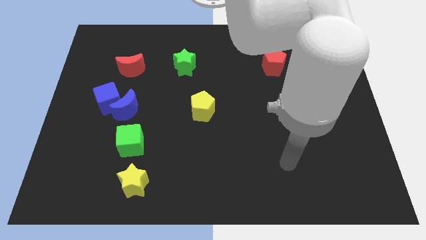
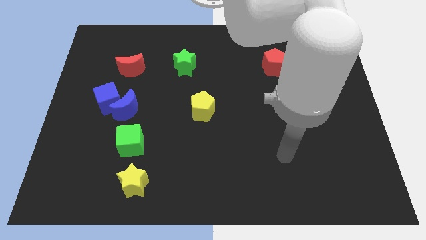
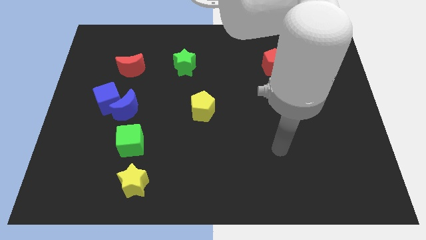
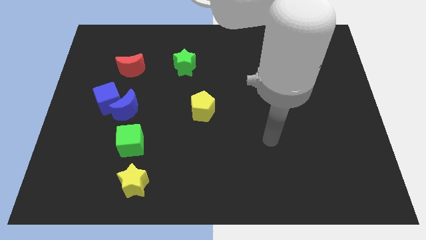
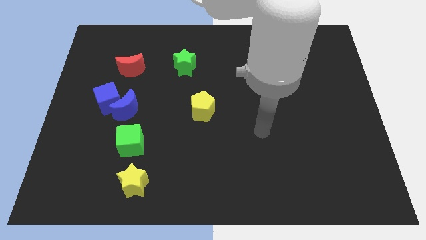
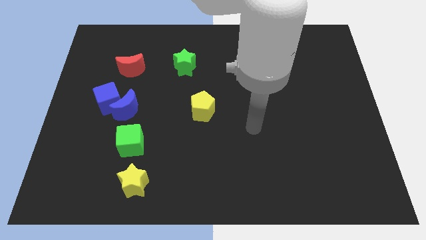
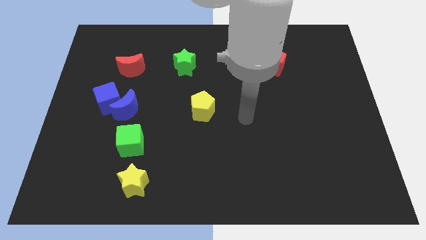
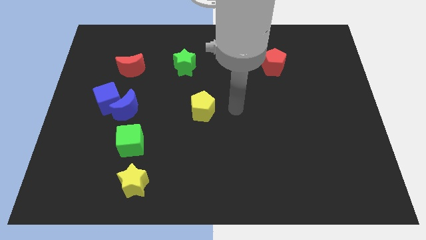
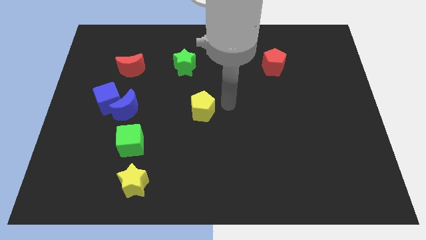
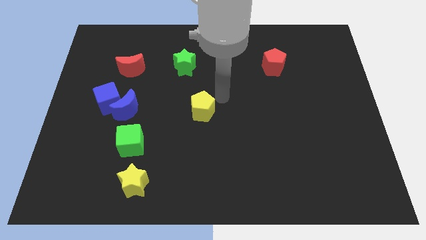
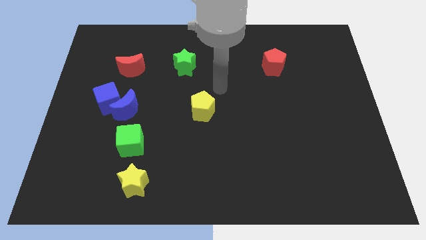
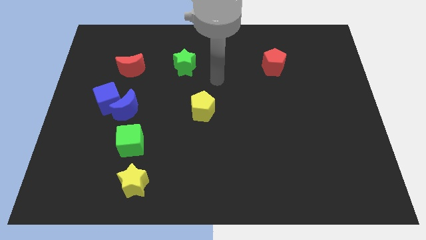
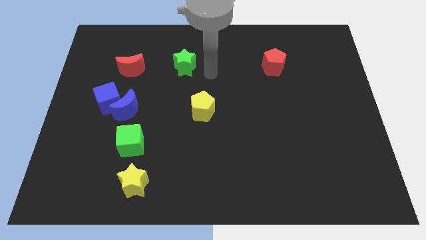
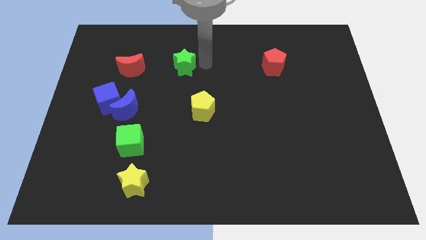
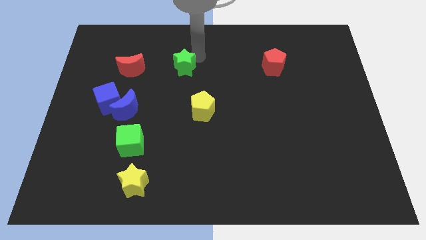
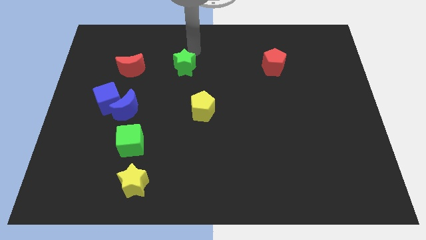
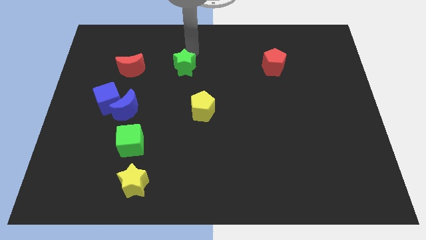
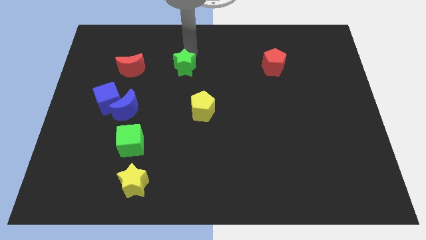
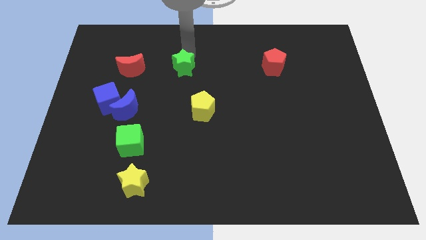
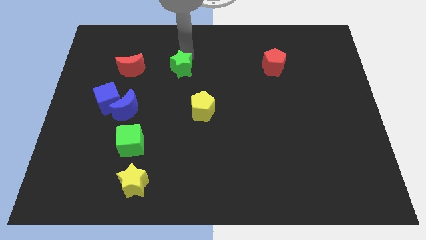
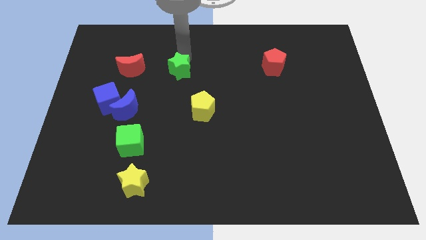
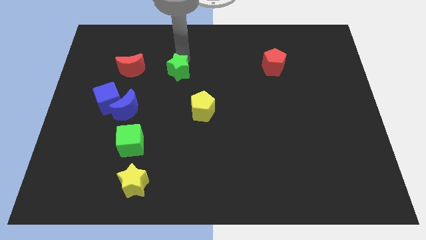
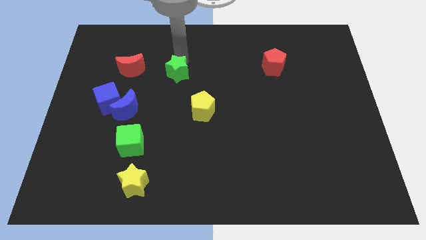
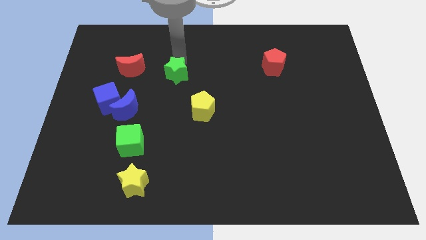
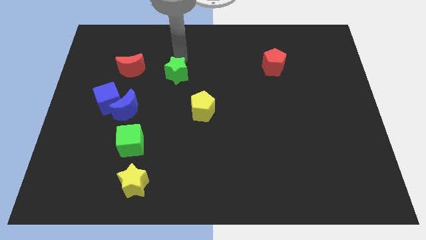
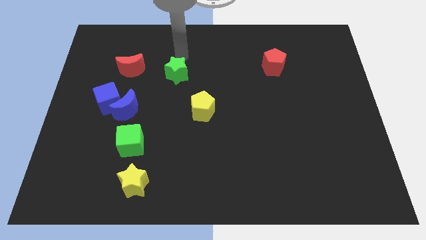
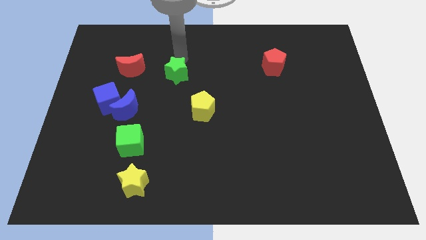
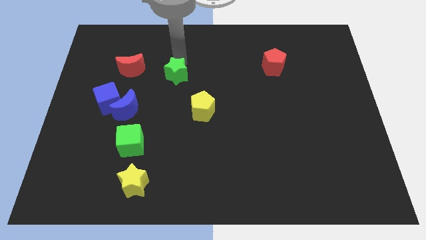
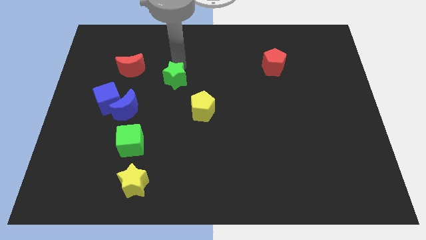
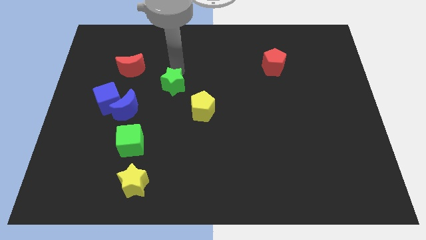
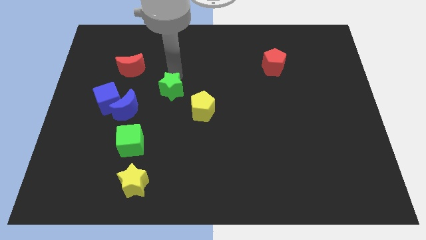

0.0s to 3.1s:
slightly slide the green star downwards

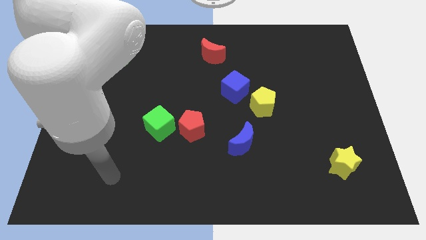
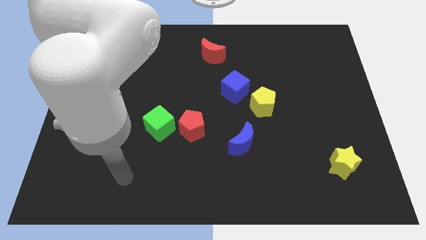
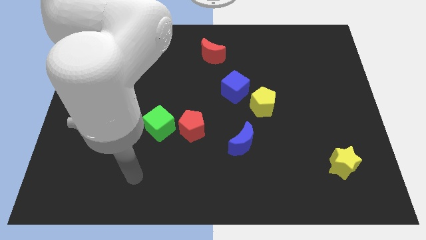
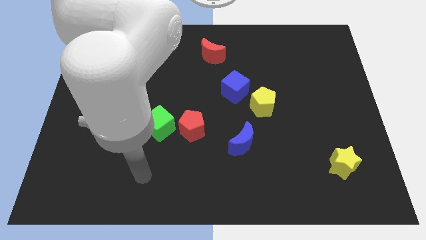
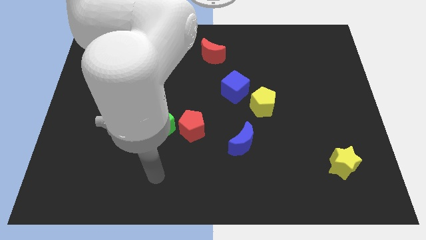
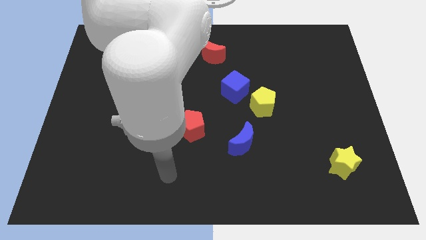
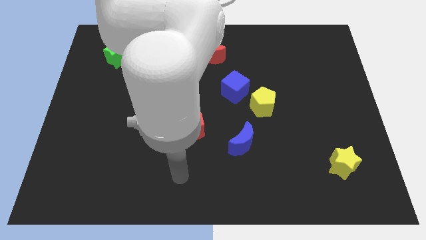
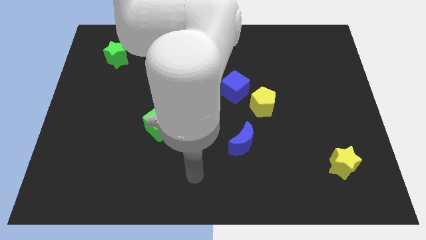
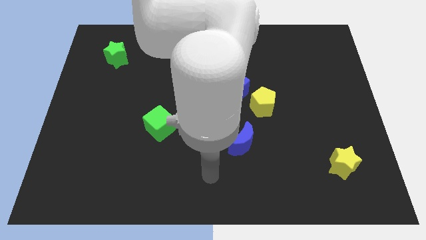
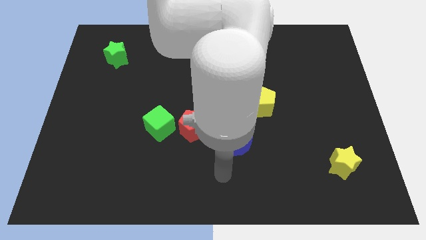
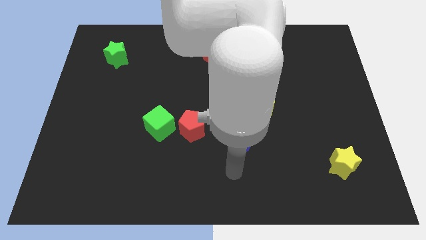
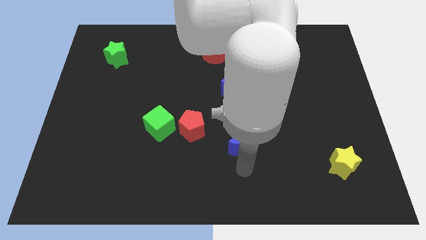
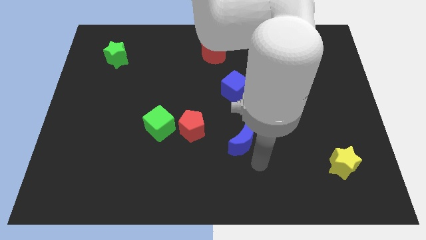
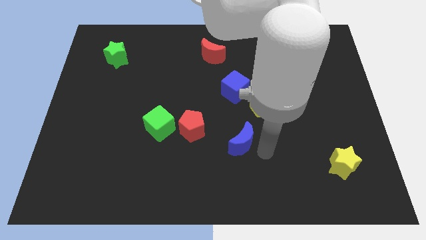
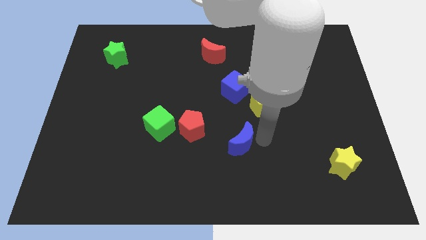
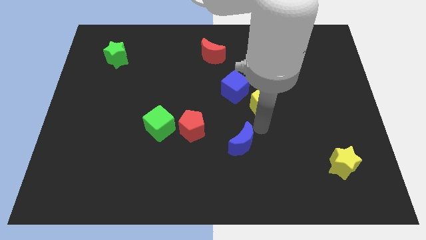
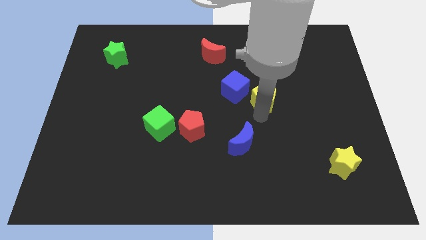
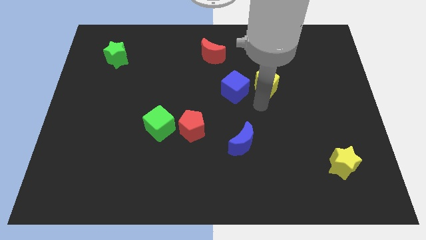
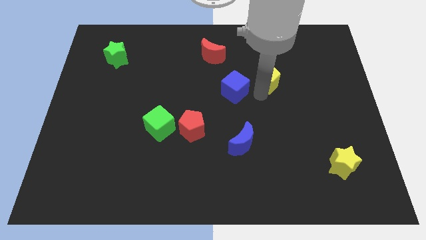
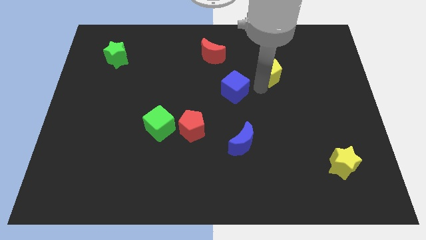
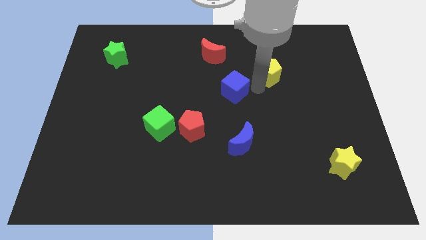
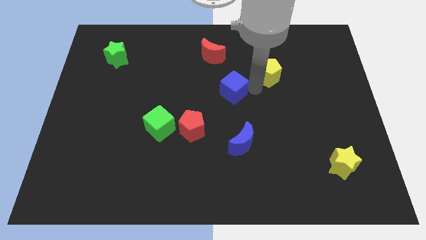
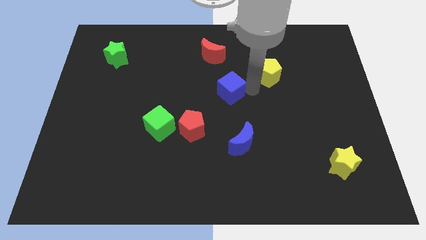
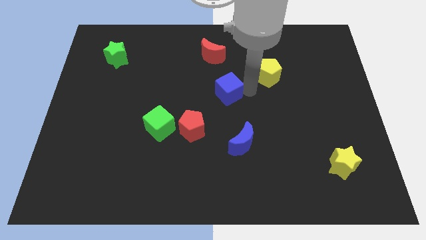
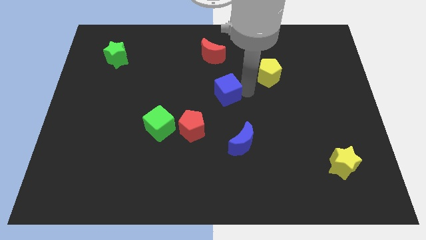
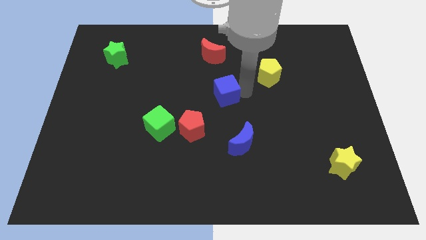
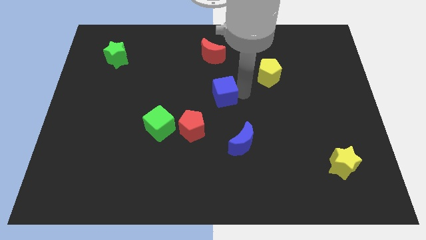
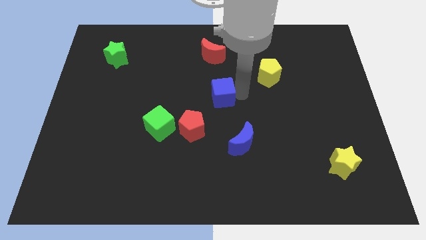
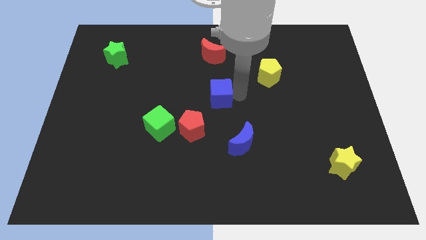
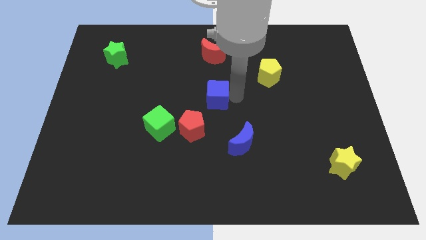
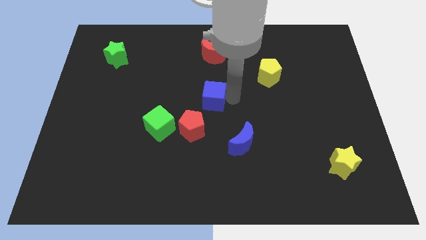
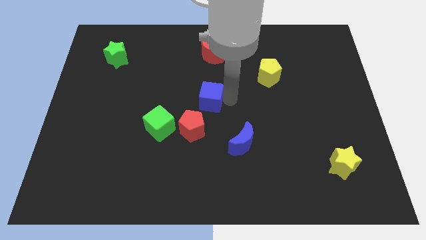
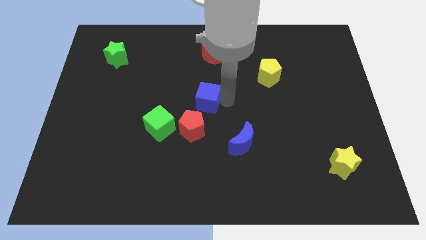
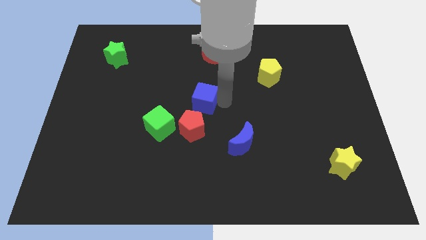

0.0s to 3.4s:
push the blue cube left a bit

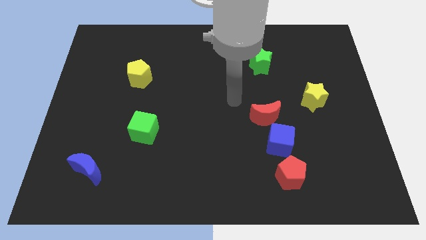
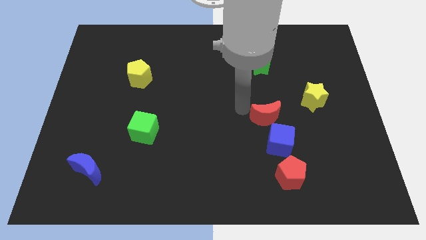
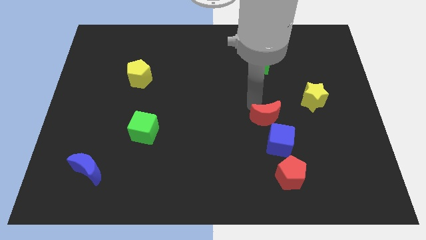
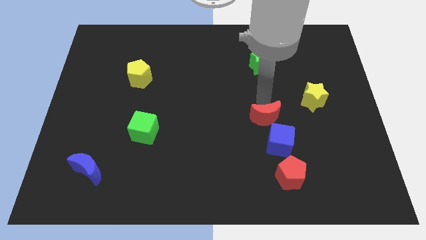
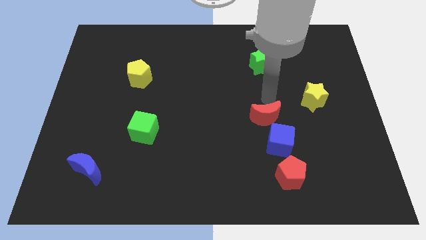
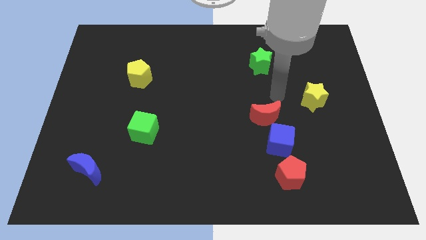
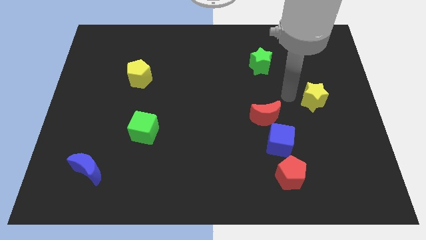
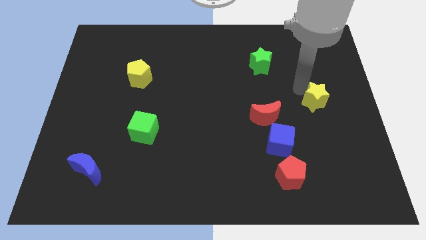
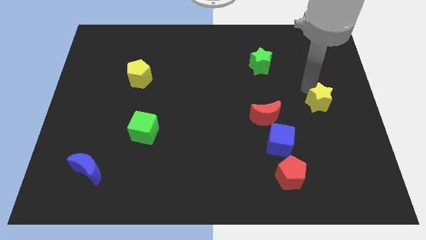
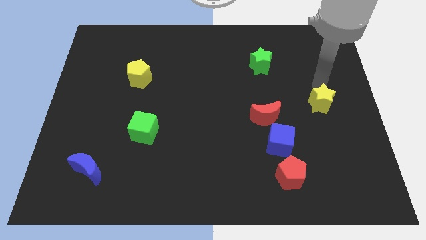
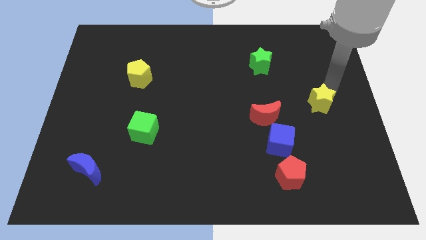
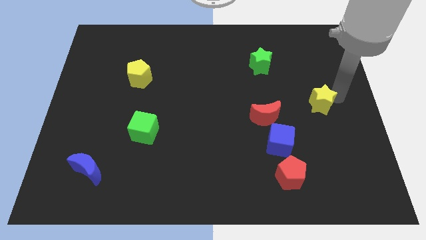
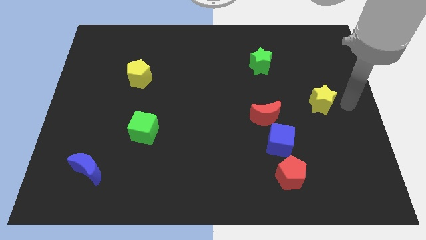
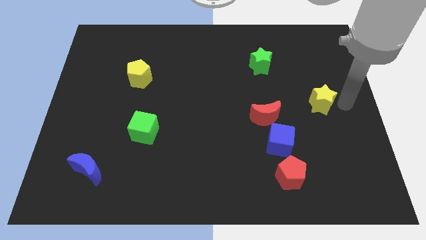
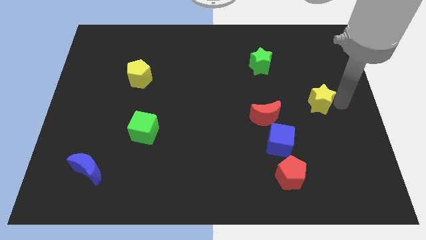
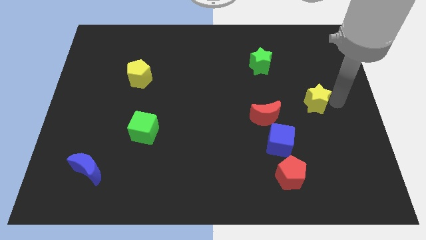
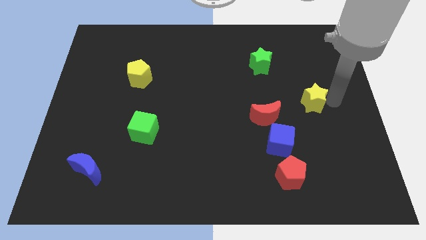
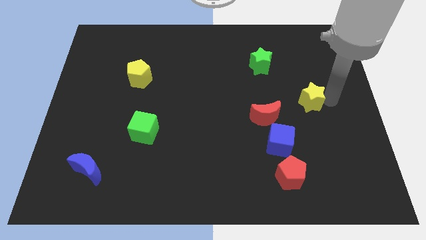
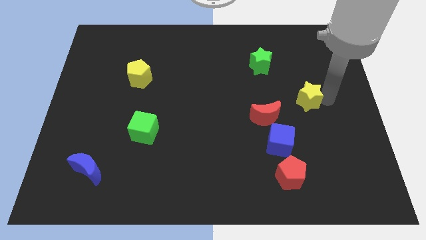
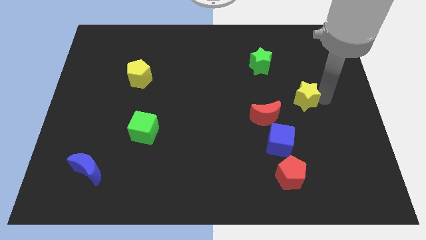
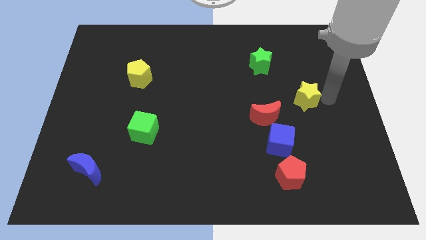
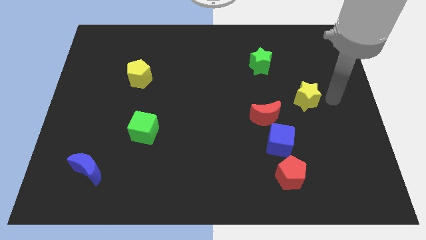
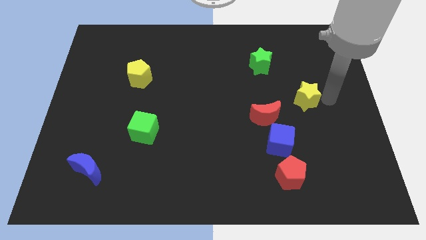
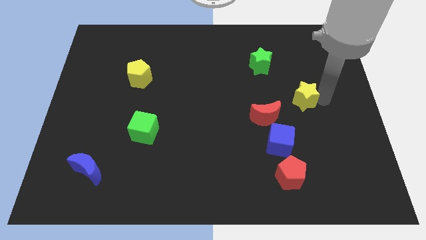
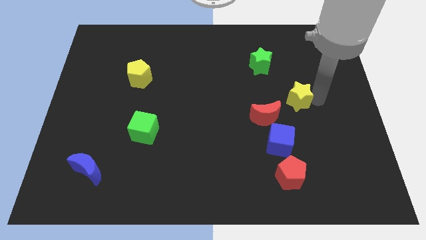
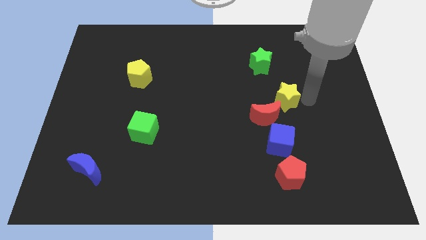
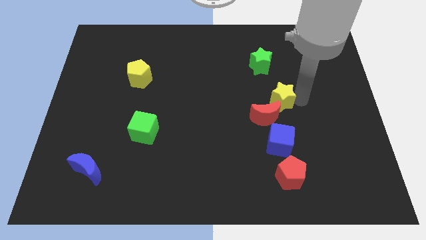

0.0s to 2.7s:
push the yellow star somewhat left
